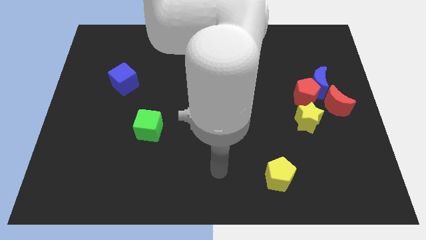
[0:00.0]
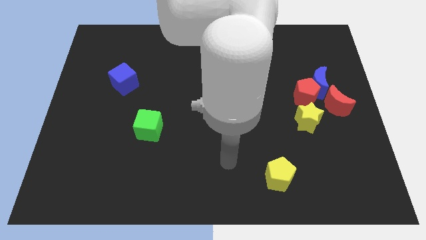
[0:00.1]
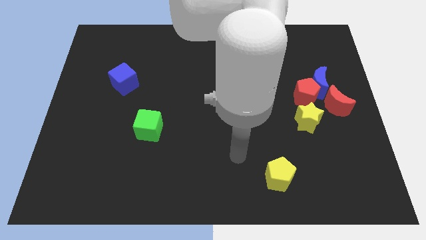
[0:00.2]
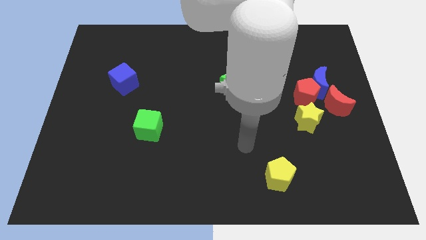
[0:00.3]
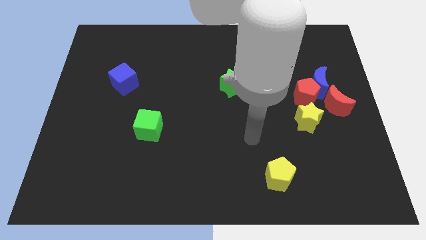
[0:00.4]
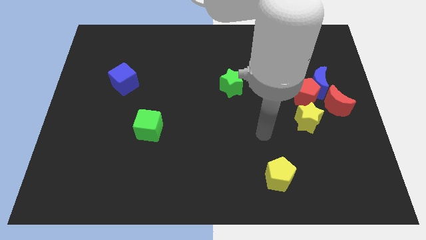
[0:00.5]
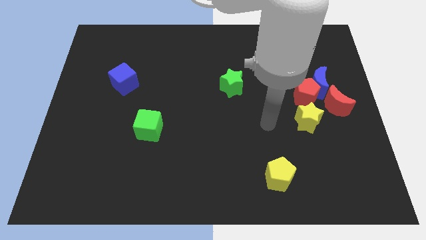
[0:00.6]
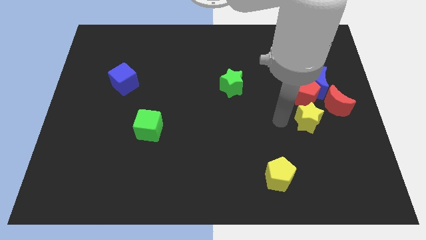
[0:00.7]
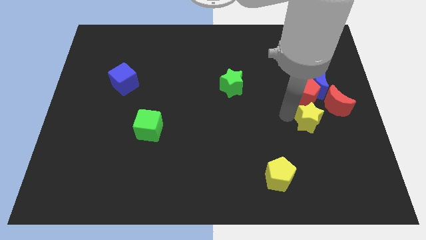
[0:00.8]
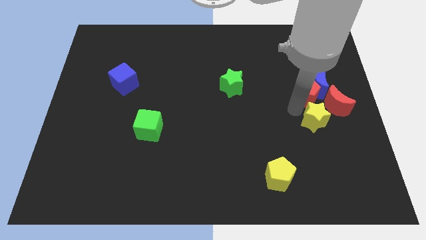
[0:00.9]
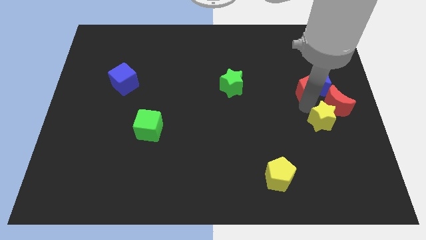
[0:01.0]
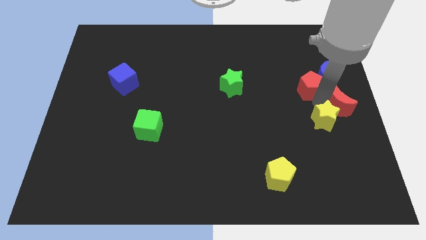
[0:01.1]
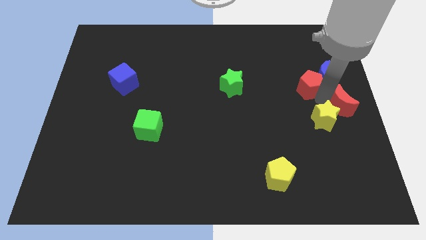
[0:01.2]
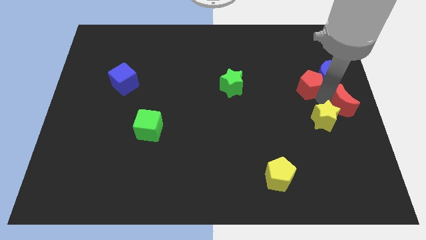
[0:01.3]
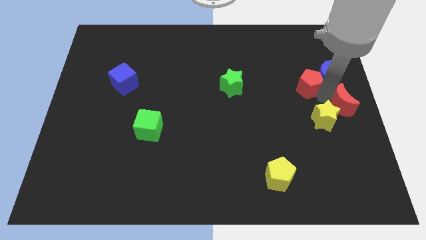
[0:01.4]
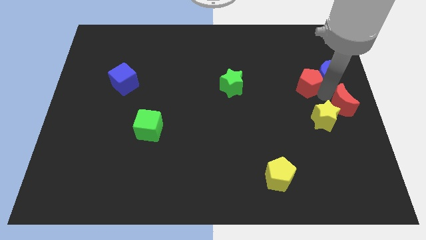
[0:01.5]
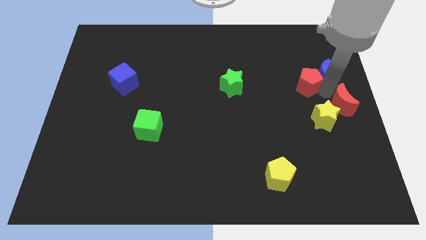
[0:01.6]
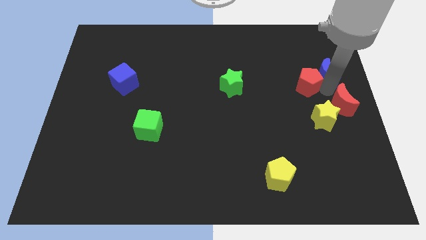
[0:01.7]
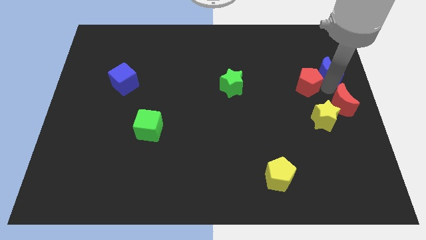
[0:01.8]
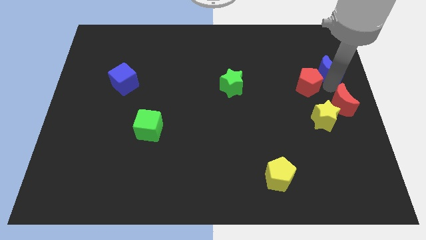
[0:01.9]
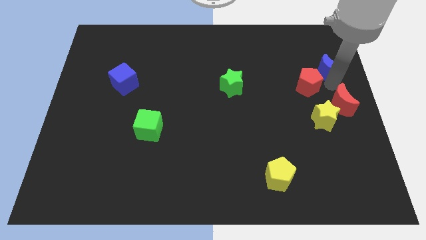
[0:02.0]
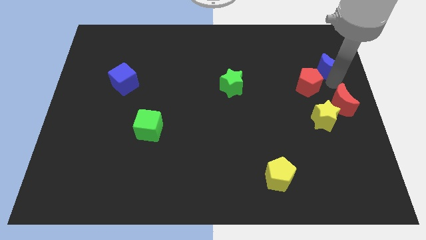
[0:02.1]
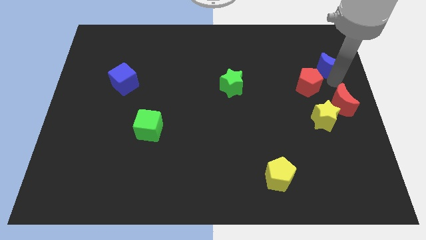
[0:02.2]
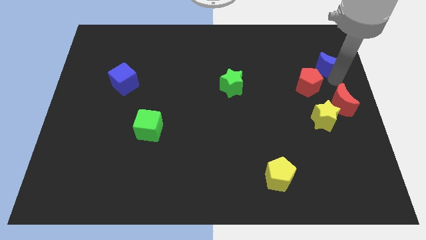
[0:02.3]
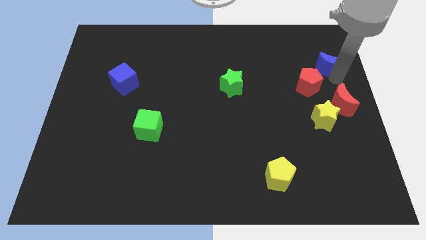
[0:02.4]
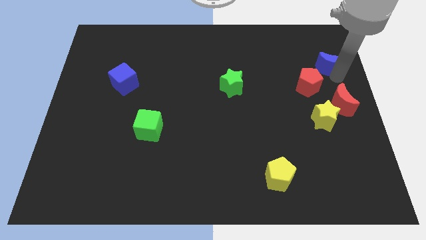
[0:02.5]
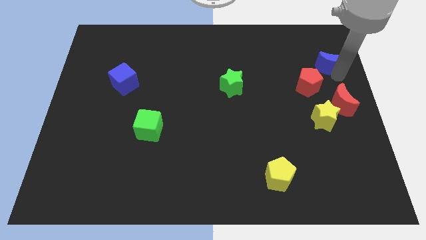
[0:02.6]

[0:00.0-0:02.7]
pull the blue moon apart from the red pentagon and red moon

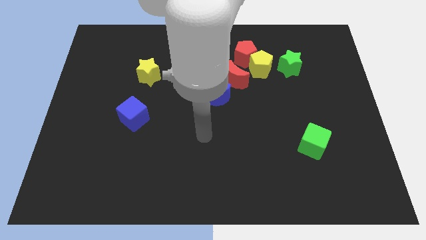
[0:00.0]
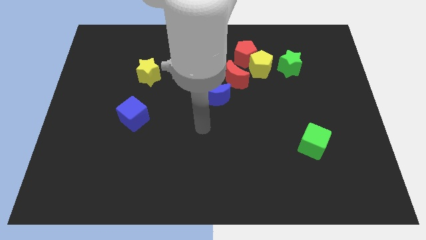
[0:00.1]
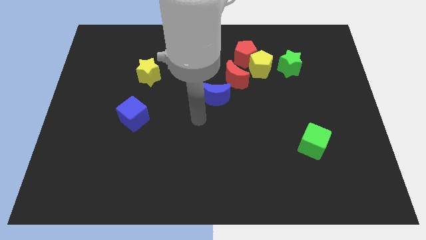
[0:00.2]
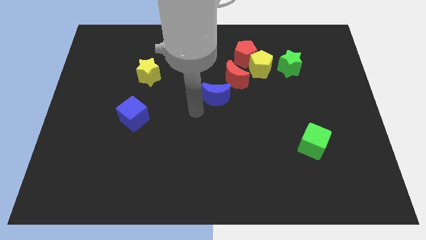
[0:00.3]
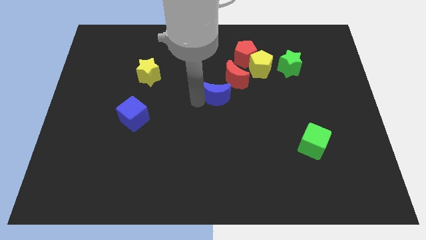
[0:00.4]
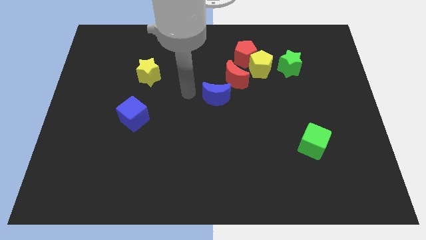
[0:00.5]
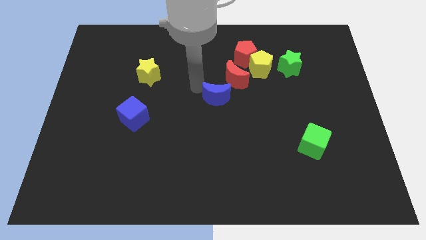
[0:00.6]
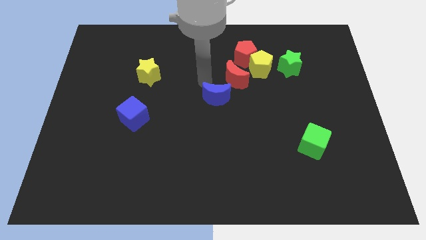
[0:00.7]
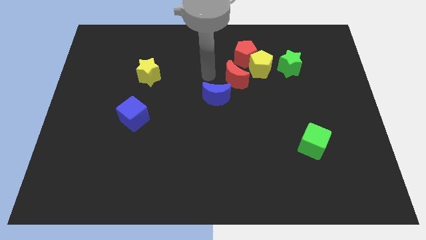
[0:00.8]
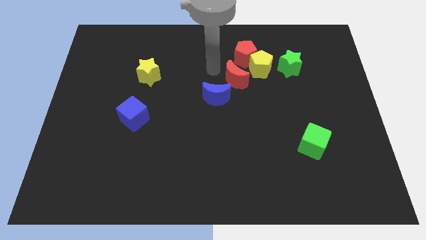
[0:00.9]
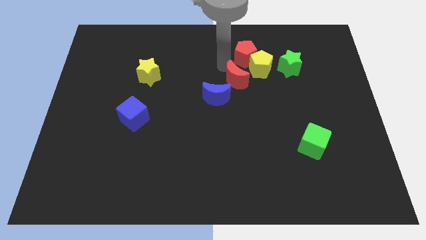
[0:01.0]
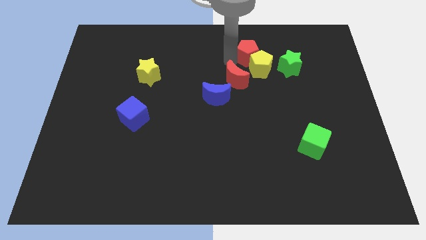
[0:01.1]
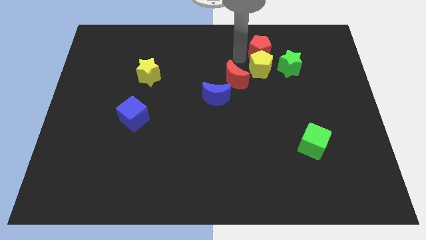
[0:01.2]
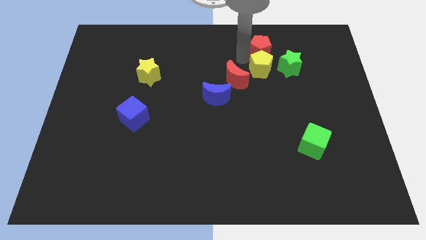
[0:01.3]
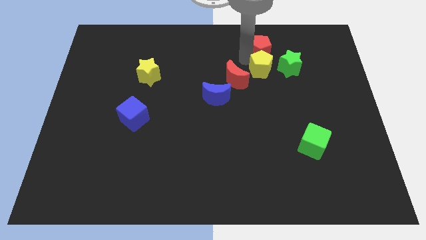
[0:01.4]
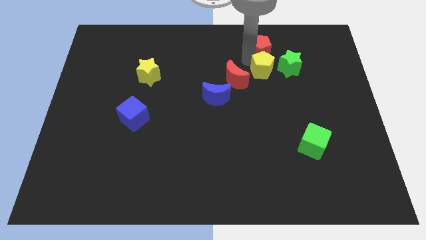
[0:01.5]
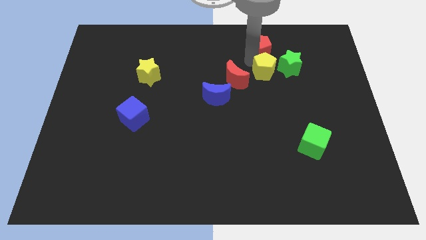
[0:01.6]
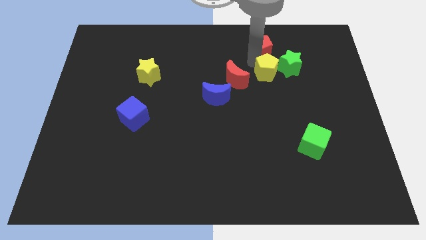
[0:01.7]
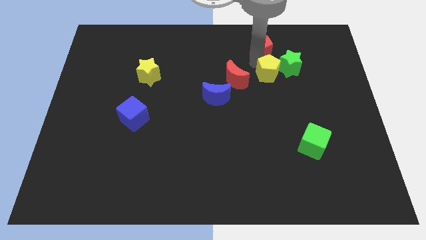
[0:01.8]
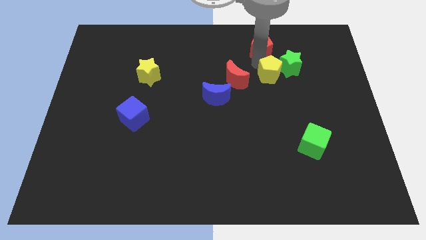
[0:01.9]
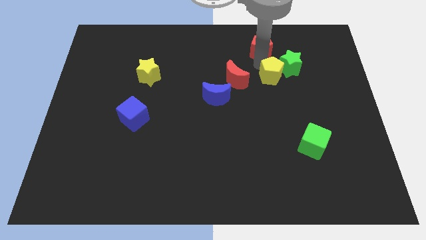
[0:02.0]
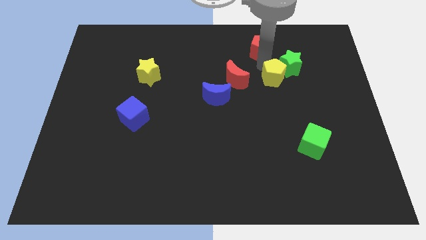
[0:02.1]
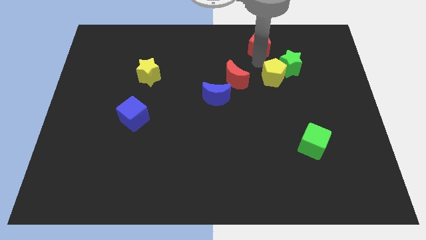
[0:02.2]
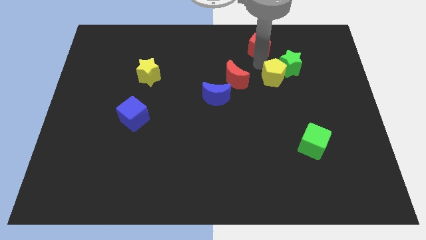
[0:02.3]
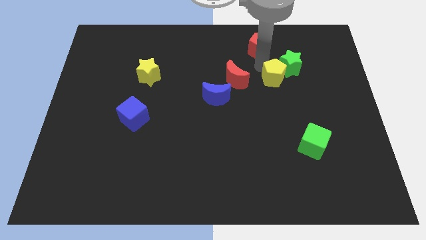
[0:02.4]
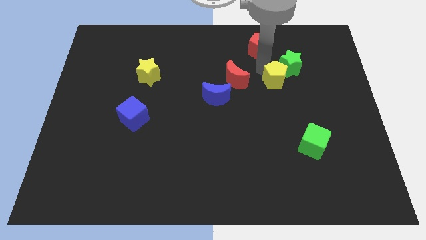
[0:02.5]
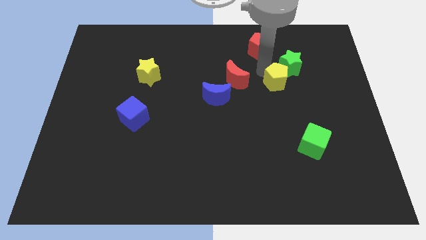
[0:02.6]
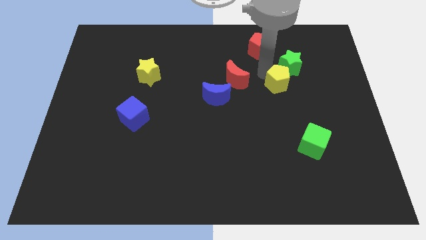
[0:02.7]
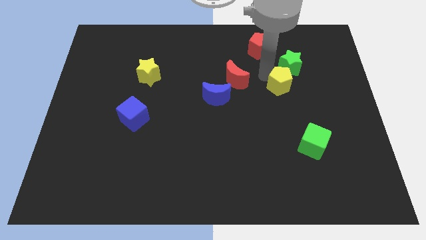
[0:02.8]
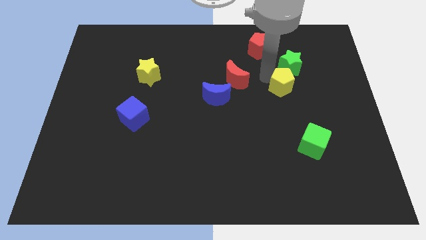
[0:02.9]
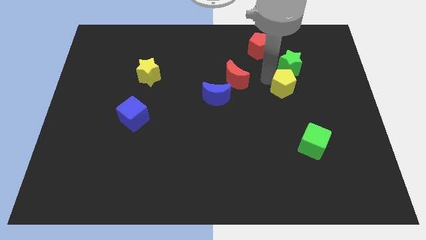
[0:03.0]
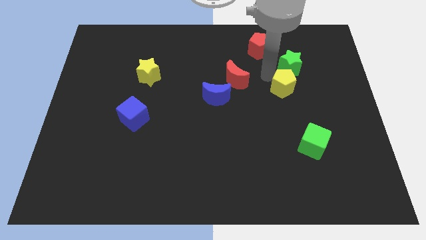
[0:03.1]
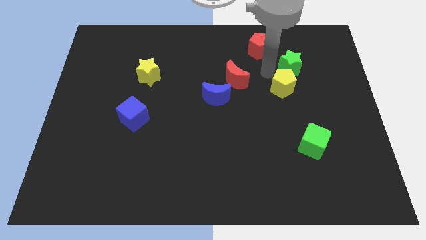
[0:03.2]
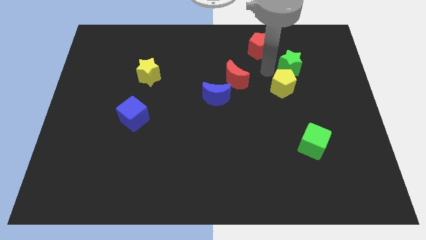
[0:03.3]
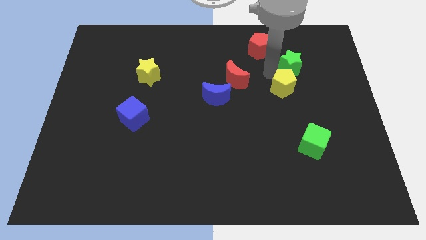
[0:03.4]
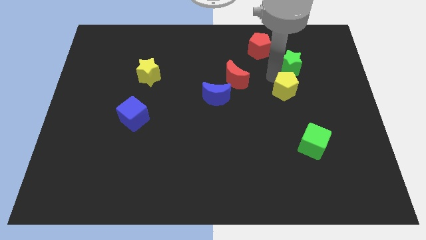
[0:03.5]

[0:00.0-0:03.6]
separate the yellow pentagon from the red pentagon, green star, and red moon

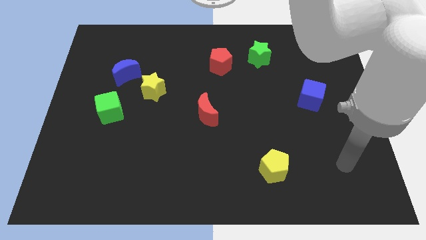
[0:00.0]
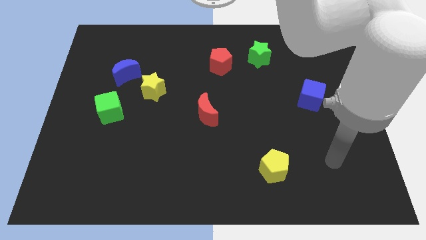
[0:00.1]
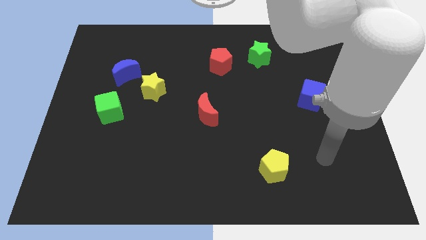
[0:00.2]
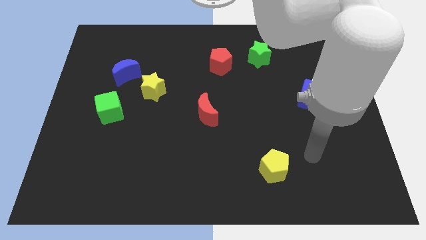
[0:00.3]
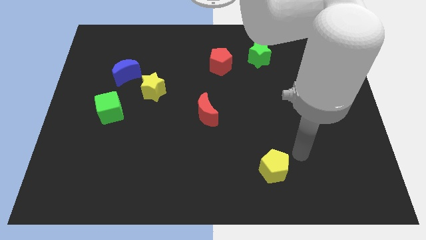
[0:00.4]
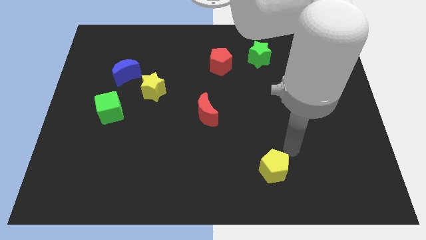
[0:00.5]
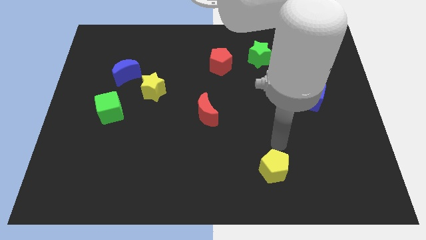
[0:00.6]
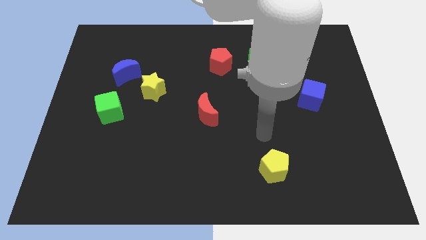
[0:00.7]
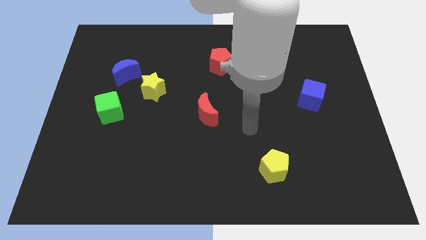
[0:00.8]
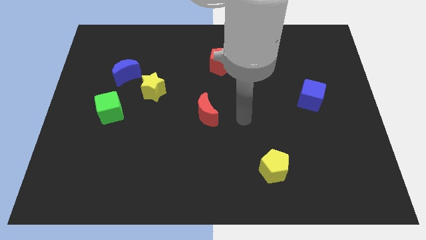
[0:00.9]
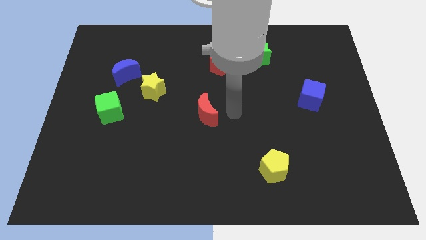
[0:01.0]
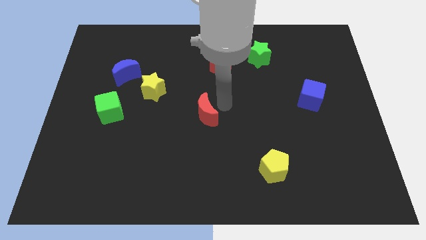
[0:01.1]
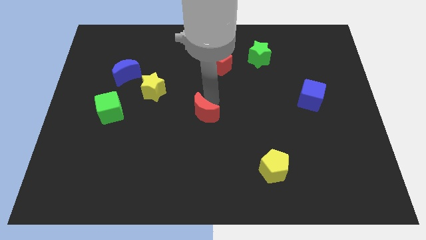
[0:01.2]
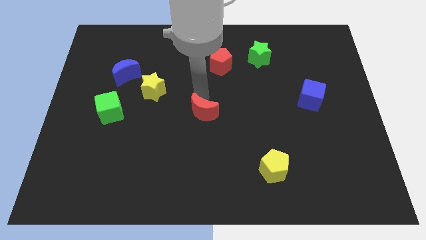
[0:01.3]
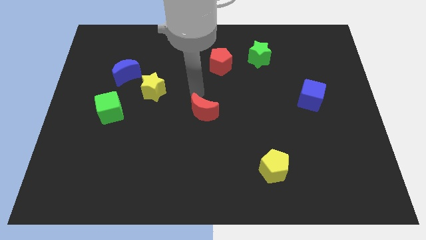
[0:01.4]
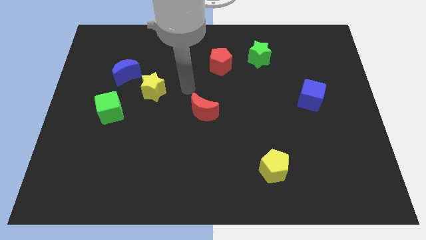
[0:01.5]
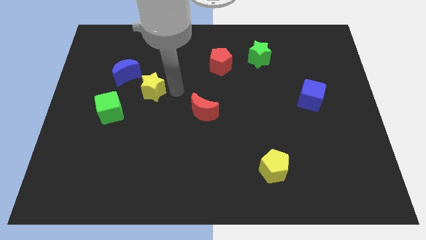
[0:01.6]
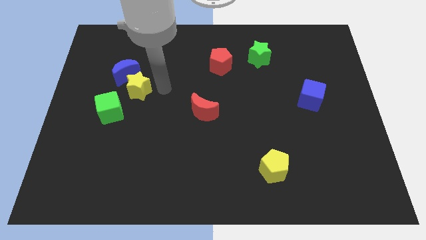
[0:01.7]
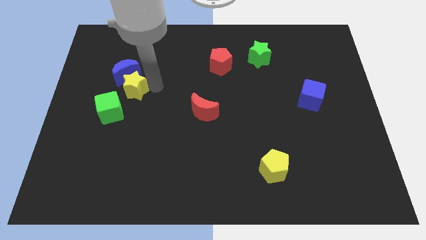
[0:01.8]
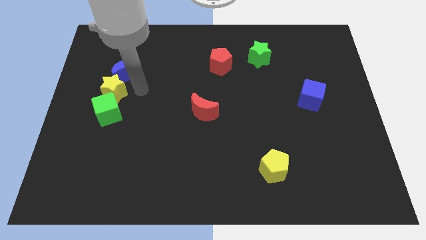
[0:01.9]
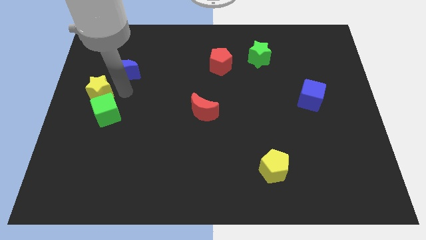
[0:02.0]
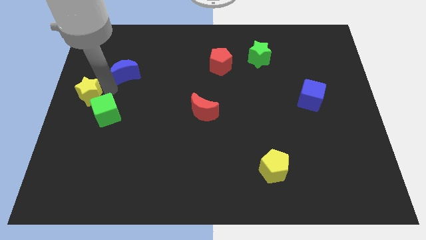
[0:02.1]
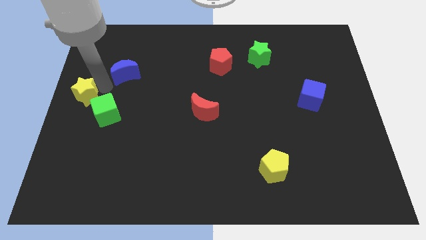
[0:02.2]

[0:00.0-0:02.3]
pull the blue moon apart from the yellow star

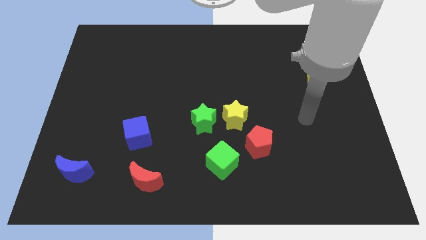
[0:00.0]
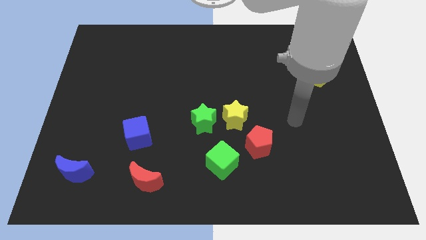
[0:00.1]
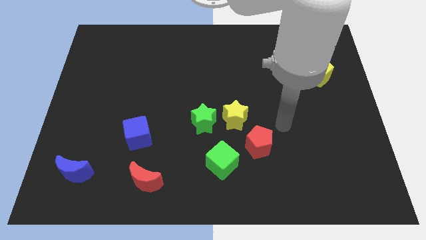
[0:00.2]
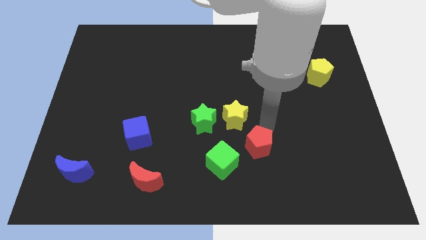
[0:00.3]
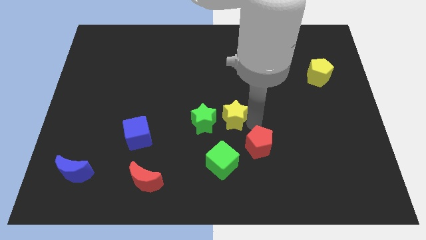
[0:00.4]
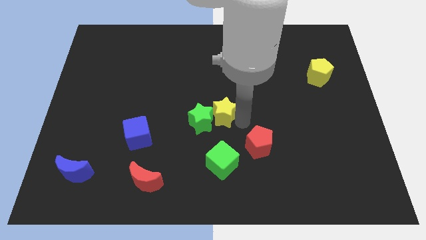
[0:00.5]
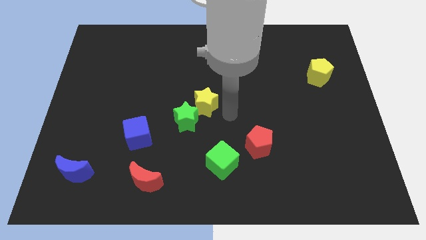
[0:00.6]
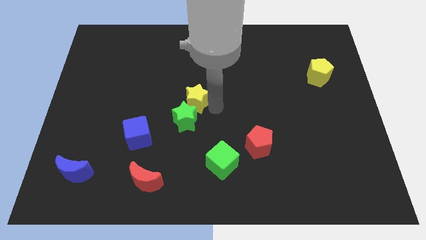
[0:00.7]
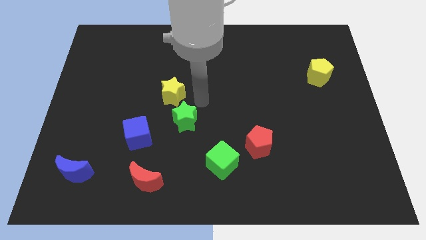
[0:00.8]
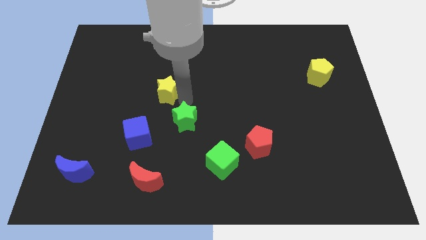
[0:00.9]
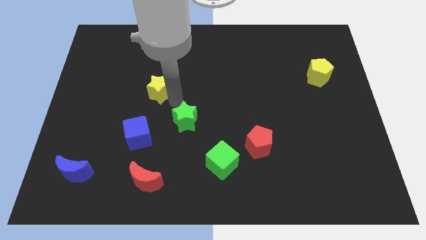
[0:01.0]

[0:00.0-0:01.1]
move the green star away from the yellow star
